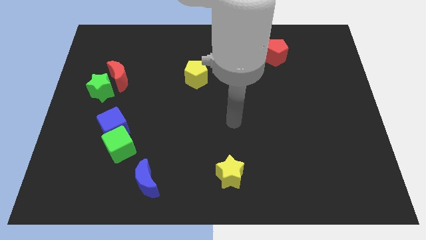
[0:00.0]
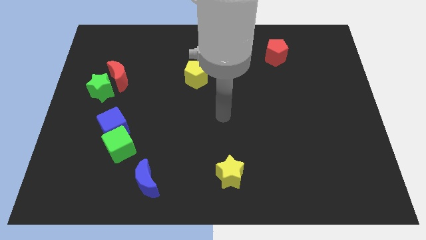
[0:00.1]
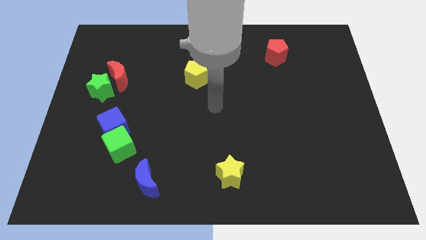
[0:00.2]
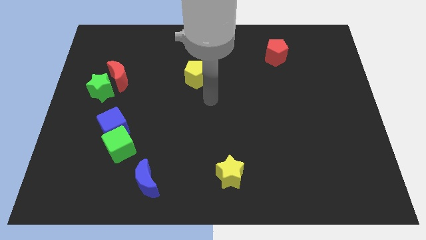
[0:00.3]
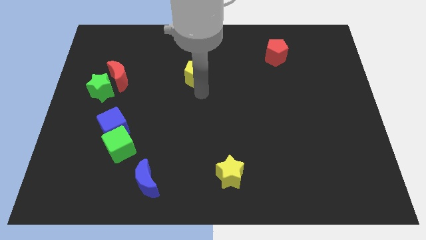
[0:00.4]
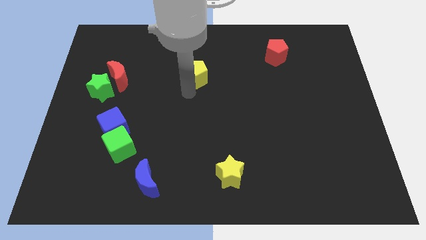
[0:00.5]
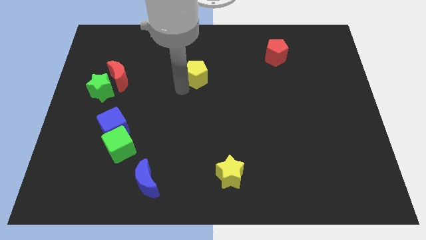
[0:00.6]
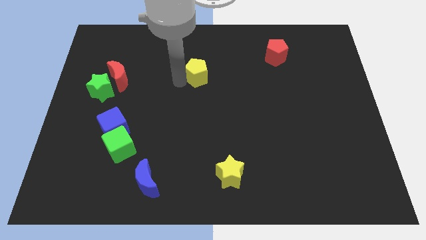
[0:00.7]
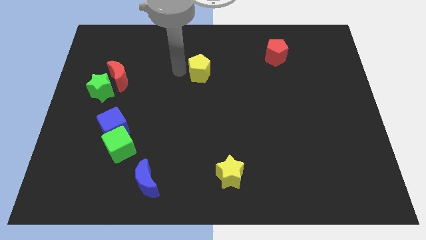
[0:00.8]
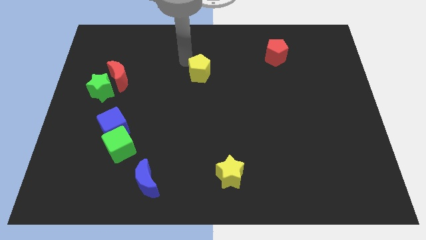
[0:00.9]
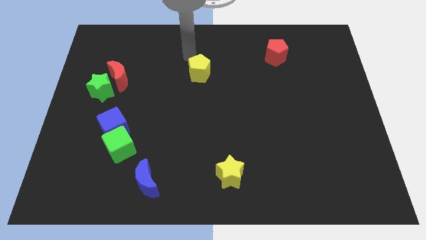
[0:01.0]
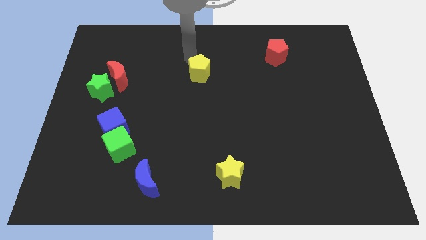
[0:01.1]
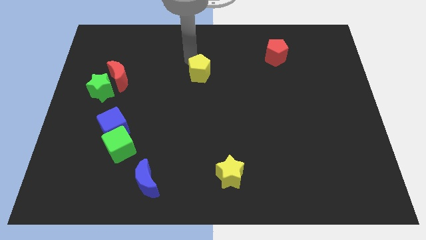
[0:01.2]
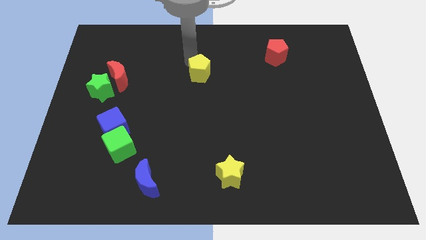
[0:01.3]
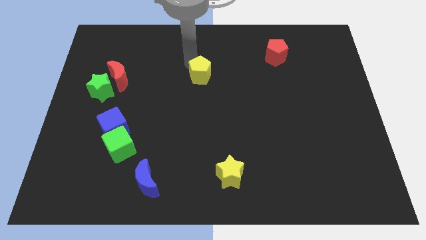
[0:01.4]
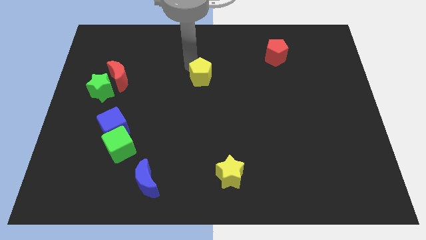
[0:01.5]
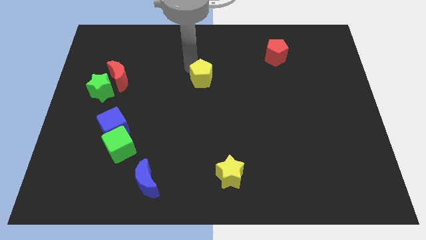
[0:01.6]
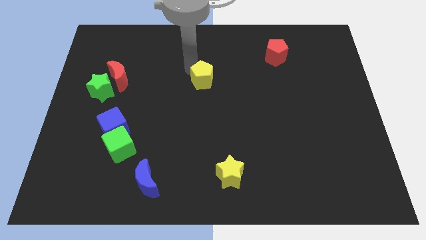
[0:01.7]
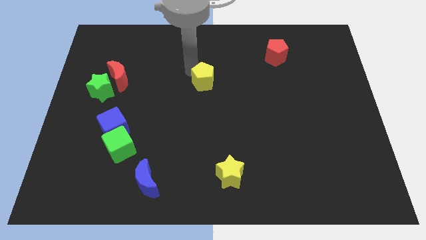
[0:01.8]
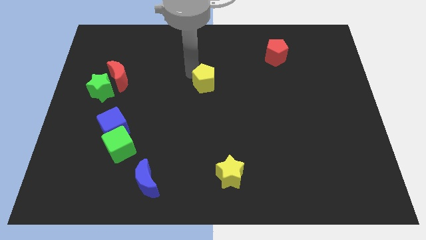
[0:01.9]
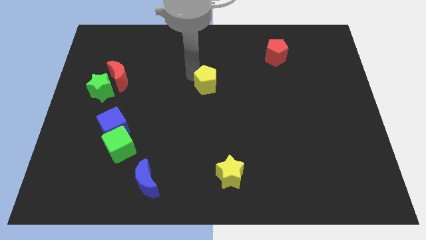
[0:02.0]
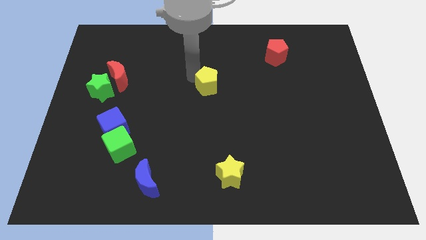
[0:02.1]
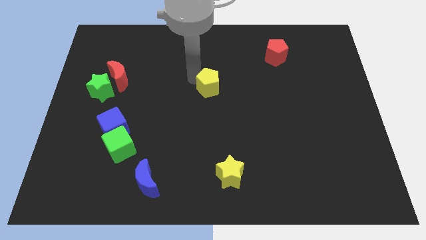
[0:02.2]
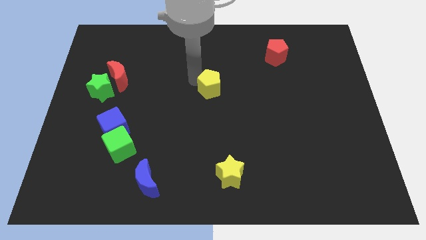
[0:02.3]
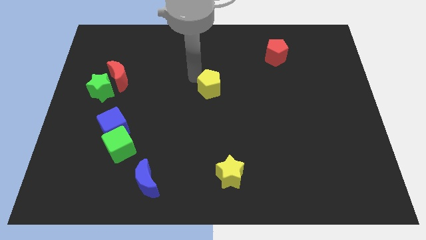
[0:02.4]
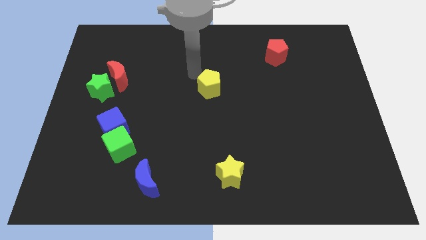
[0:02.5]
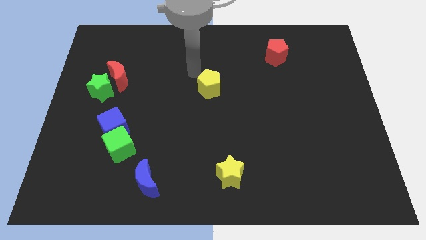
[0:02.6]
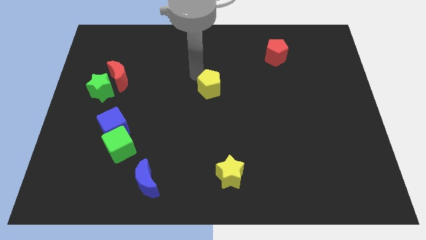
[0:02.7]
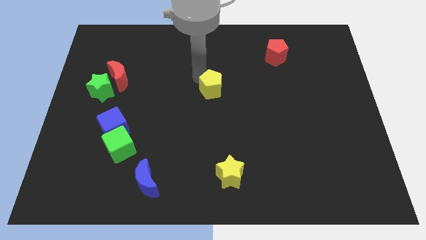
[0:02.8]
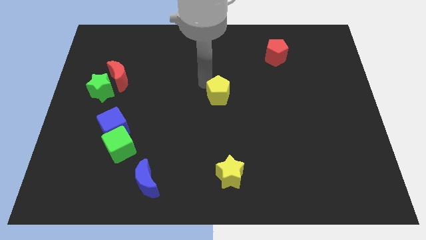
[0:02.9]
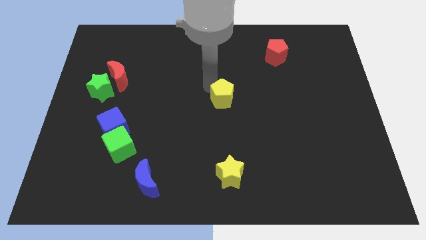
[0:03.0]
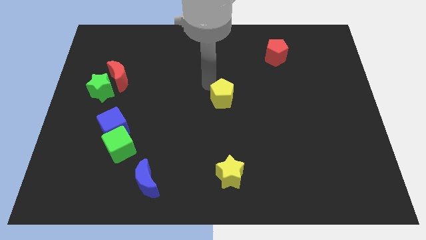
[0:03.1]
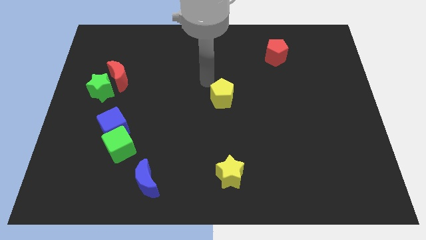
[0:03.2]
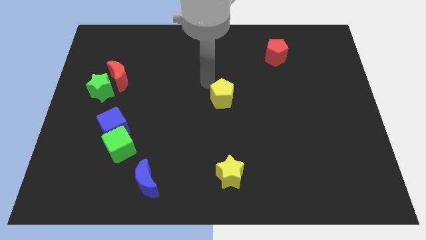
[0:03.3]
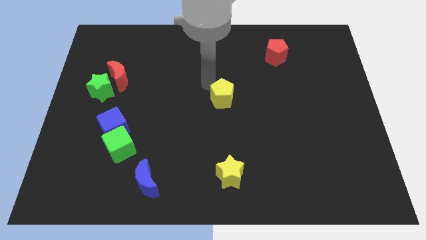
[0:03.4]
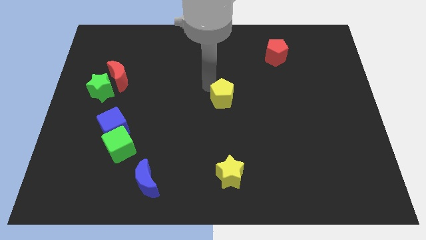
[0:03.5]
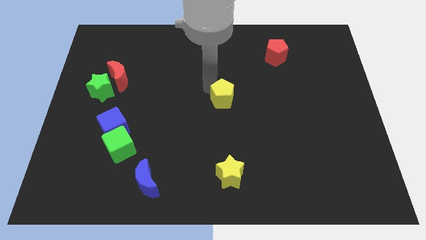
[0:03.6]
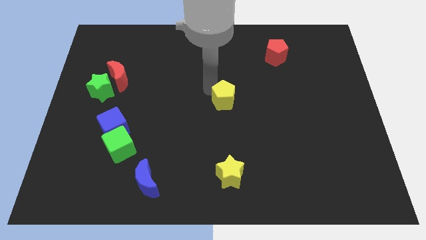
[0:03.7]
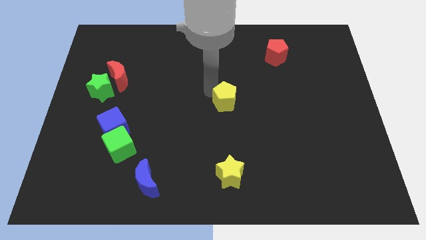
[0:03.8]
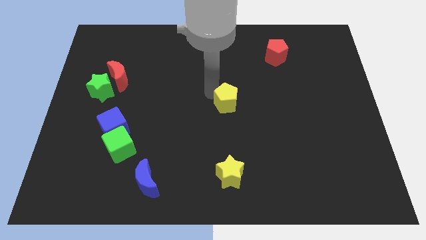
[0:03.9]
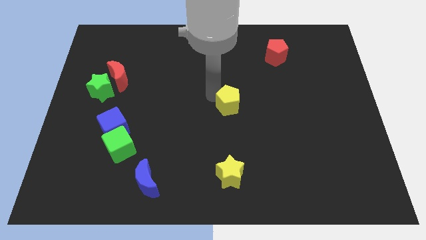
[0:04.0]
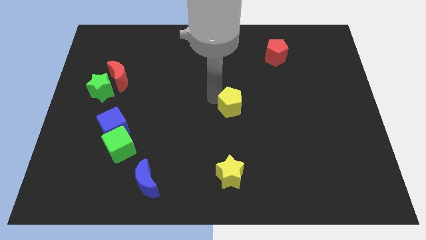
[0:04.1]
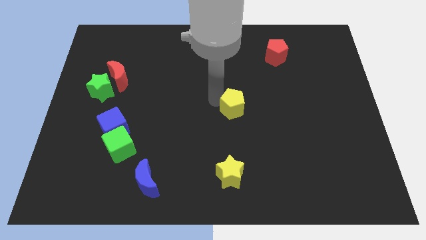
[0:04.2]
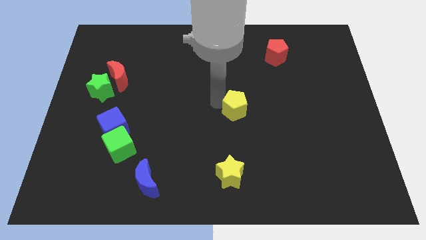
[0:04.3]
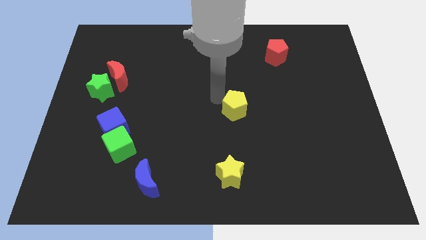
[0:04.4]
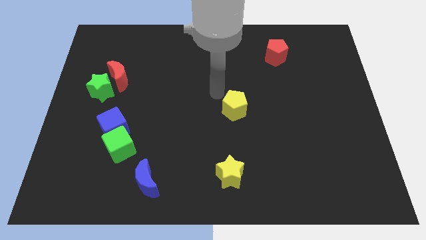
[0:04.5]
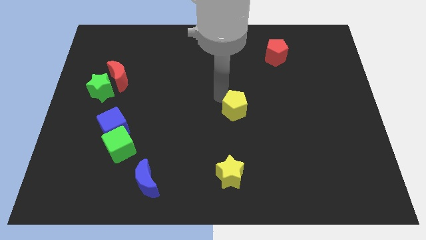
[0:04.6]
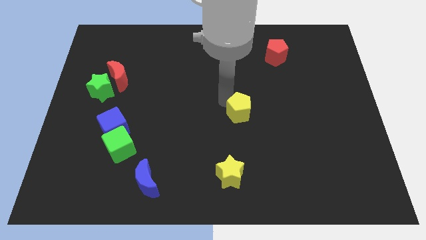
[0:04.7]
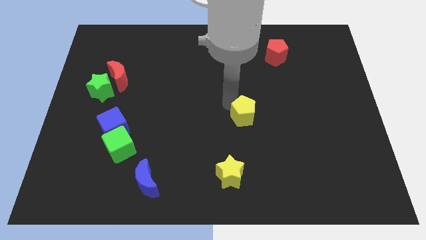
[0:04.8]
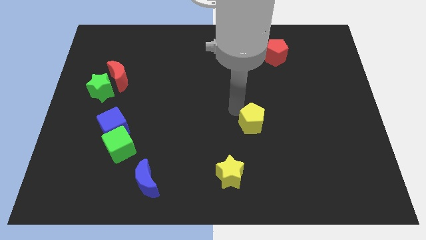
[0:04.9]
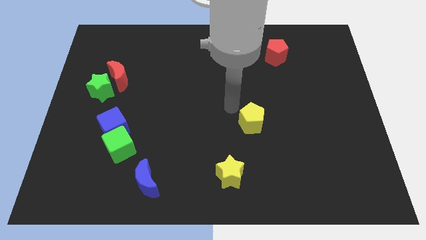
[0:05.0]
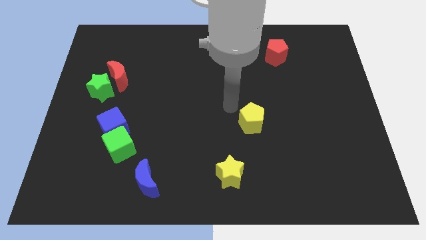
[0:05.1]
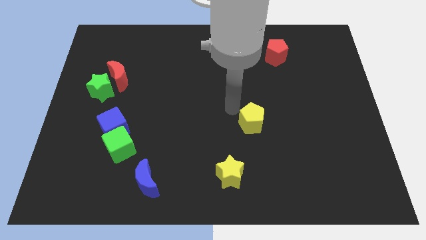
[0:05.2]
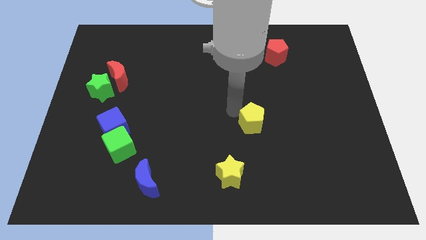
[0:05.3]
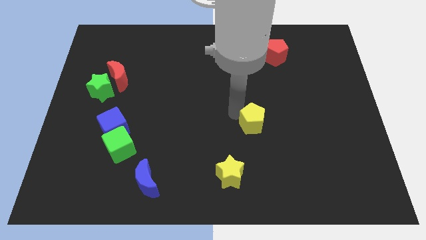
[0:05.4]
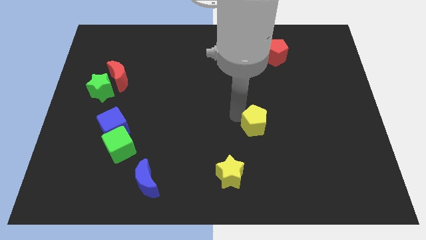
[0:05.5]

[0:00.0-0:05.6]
move the yellow pentagon diagonally down and to the right

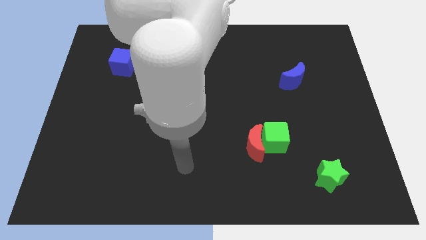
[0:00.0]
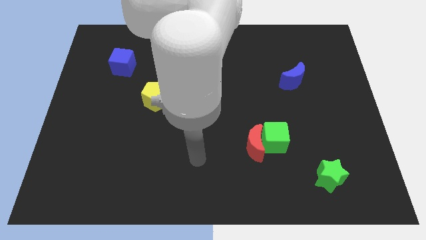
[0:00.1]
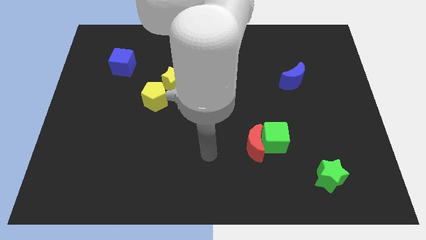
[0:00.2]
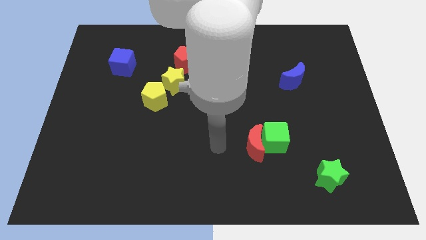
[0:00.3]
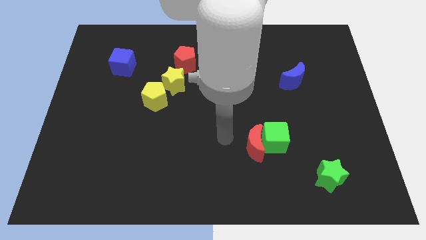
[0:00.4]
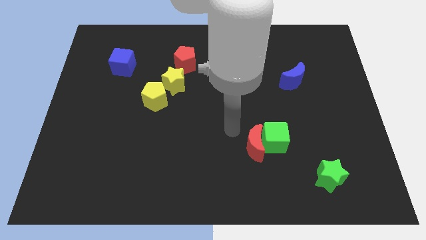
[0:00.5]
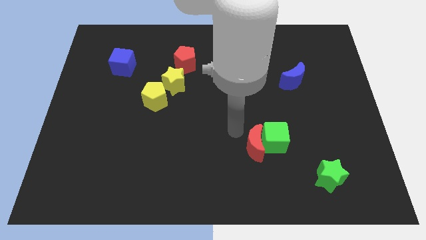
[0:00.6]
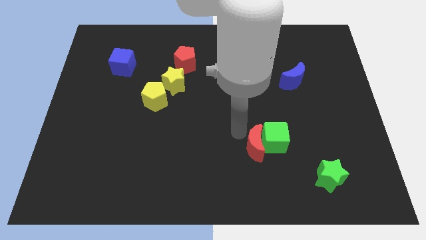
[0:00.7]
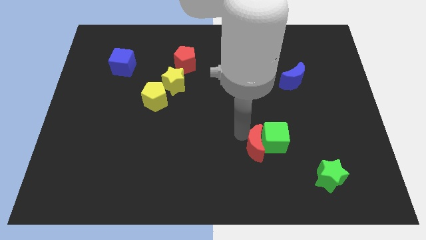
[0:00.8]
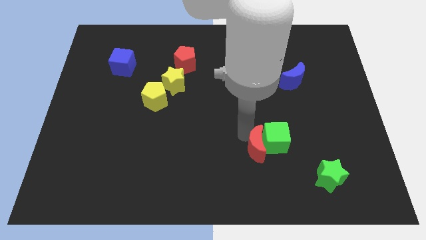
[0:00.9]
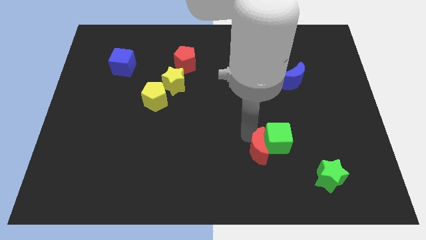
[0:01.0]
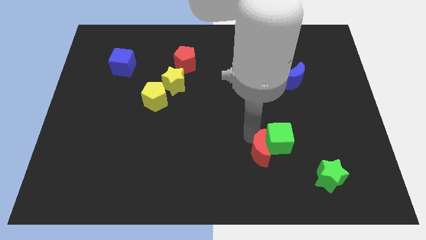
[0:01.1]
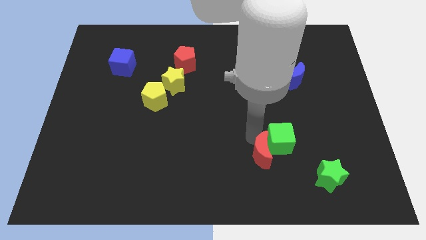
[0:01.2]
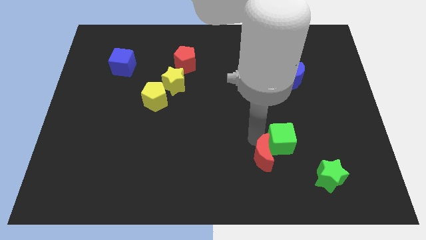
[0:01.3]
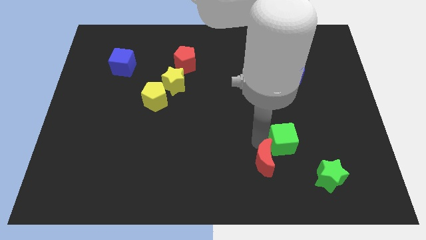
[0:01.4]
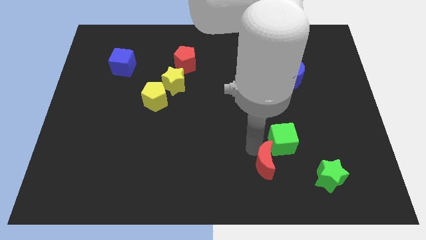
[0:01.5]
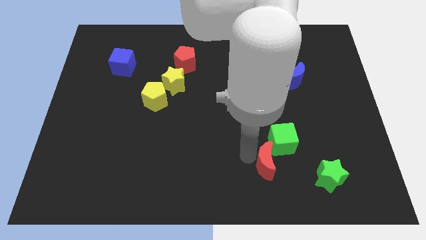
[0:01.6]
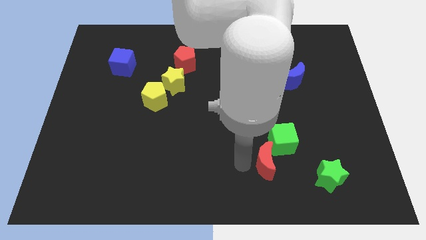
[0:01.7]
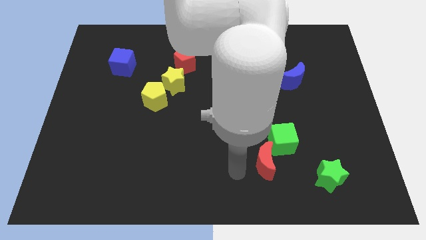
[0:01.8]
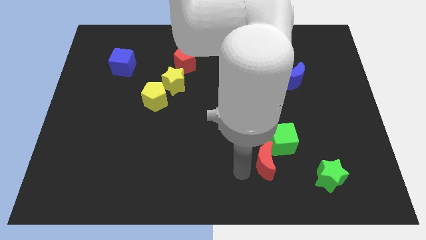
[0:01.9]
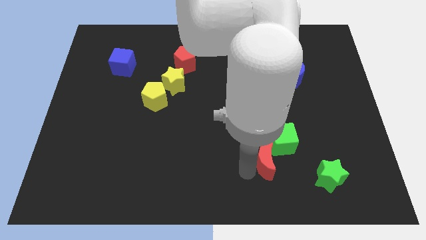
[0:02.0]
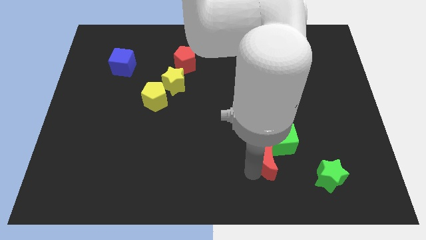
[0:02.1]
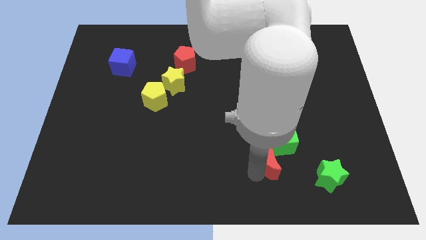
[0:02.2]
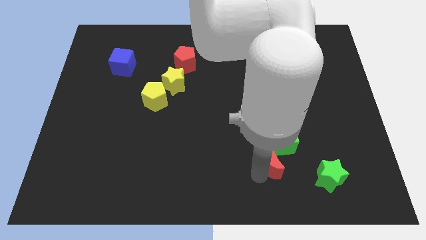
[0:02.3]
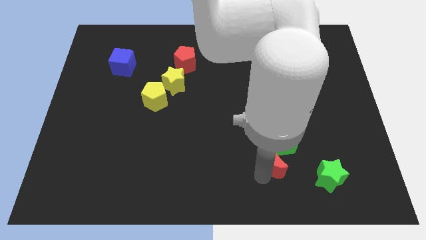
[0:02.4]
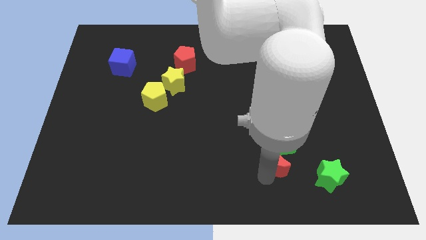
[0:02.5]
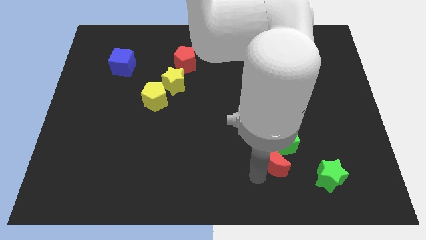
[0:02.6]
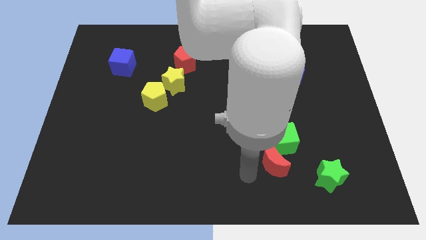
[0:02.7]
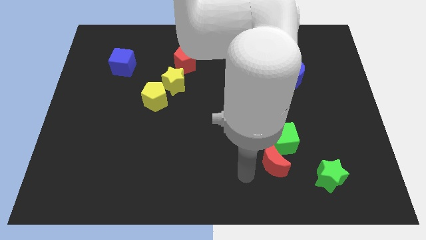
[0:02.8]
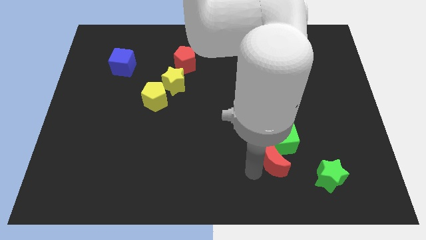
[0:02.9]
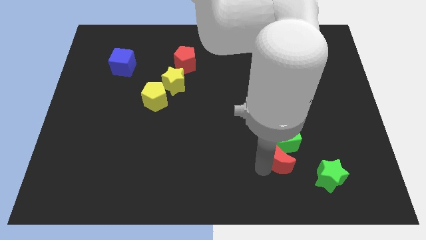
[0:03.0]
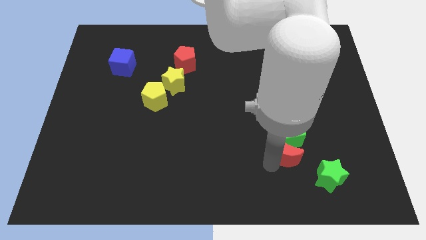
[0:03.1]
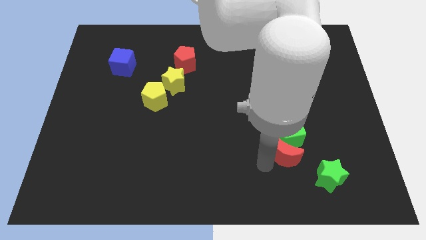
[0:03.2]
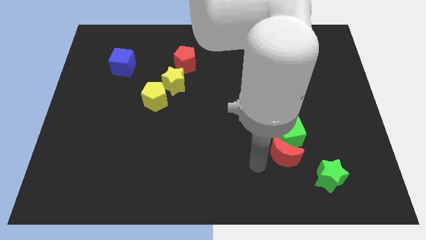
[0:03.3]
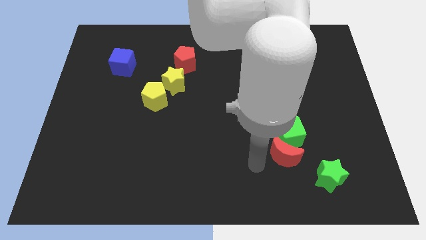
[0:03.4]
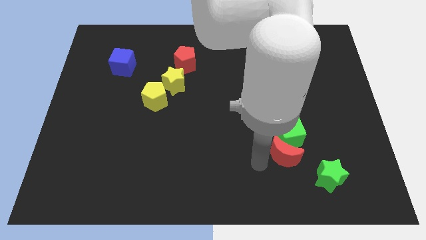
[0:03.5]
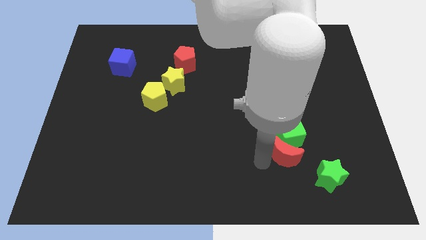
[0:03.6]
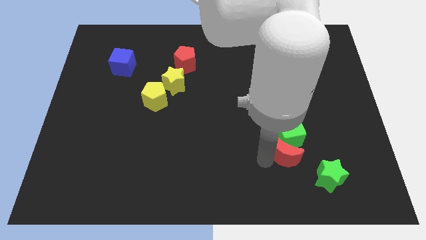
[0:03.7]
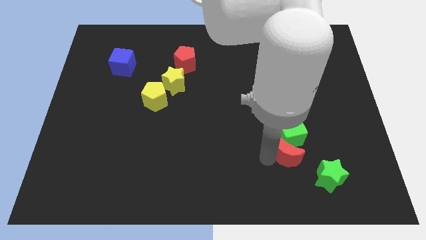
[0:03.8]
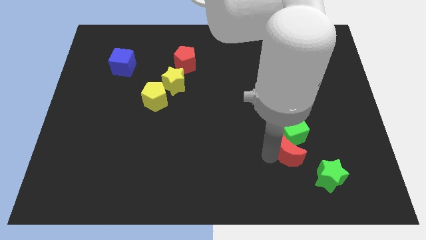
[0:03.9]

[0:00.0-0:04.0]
push the red moon somewhat right
